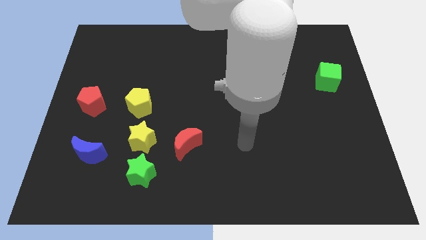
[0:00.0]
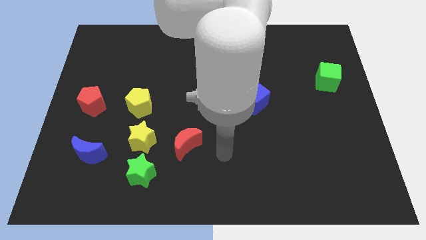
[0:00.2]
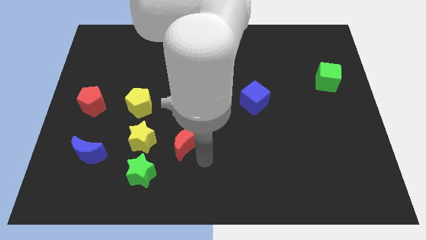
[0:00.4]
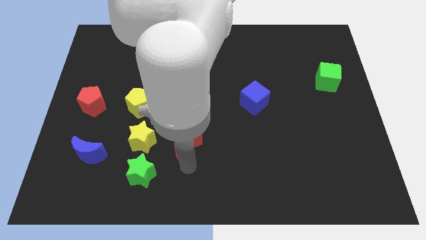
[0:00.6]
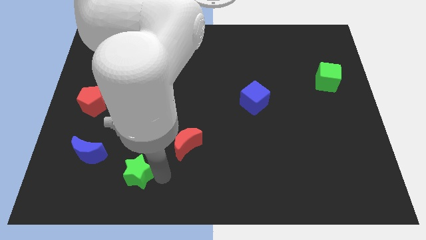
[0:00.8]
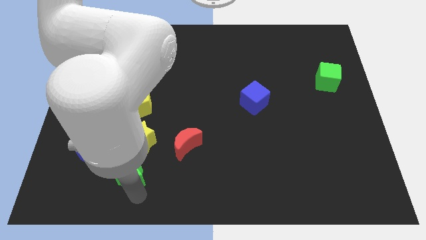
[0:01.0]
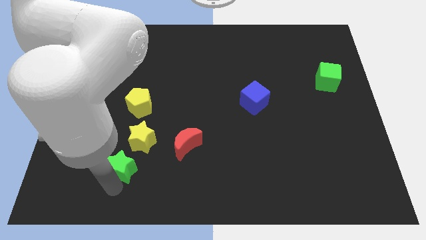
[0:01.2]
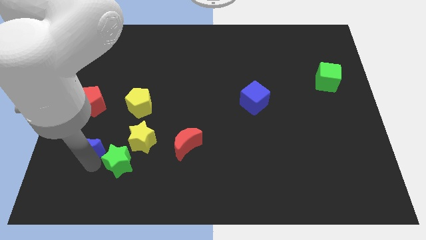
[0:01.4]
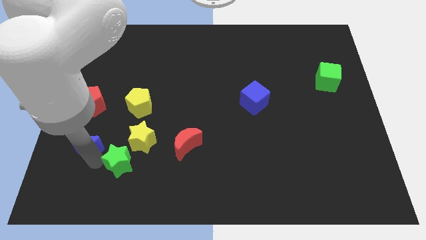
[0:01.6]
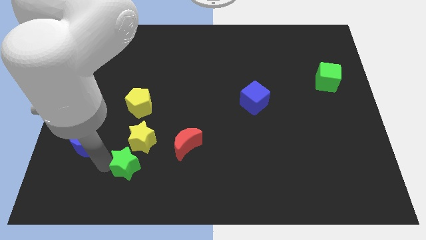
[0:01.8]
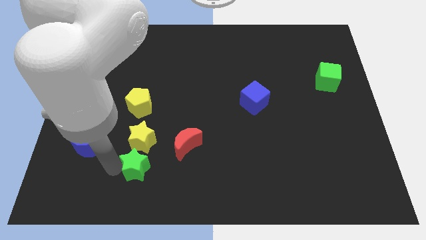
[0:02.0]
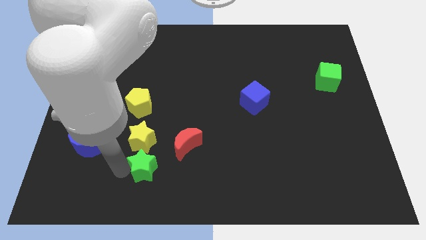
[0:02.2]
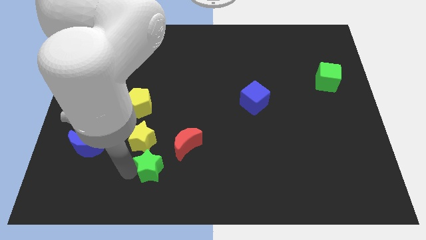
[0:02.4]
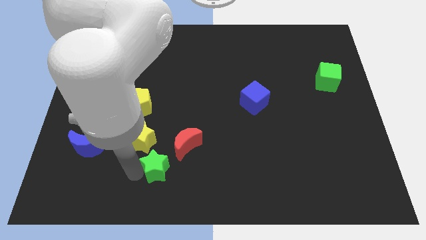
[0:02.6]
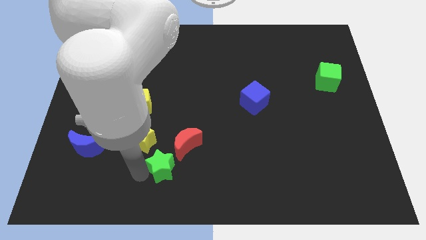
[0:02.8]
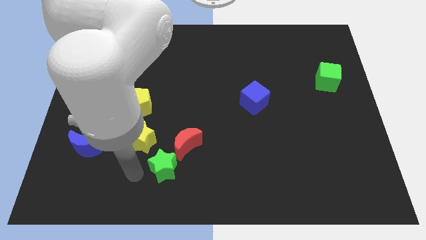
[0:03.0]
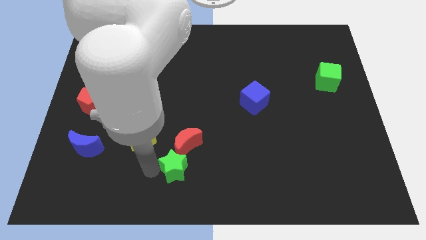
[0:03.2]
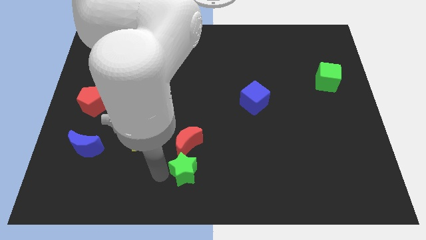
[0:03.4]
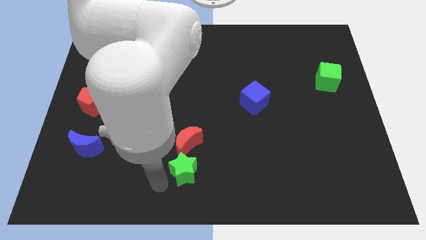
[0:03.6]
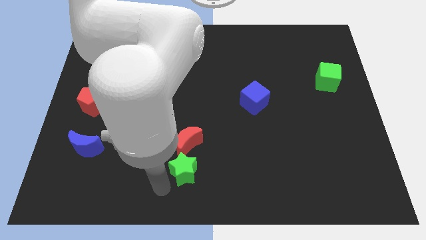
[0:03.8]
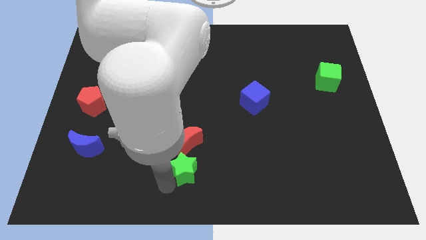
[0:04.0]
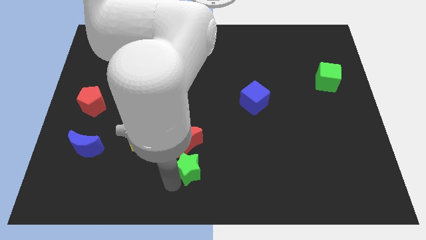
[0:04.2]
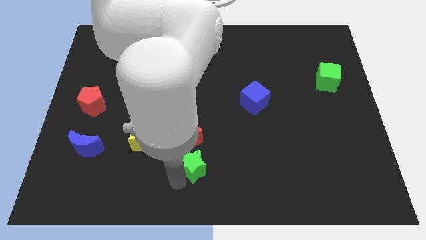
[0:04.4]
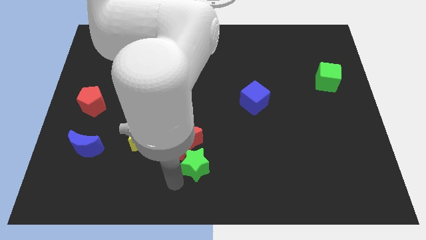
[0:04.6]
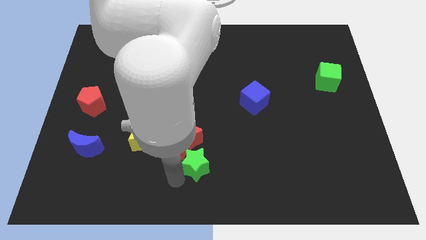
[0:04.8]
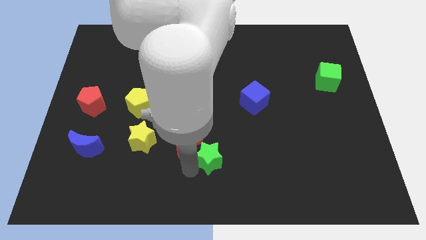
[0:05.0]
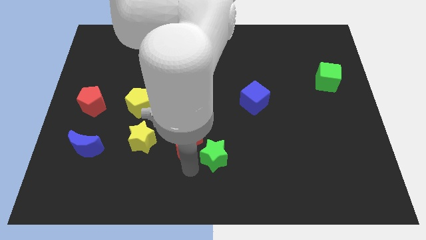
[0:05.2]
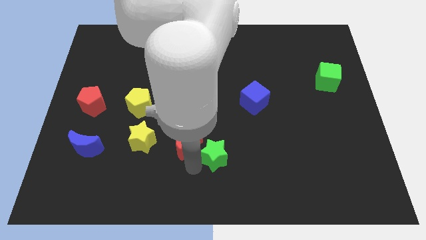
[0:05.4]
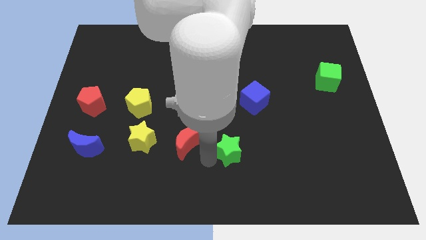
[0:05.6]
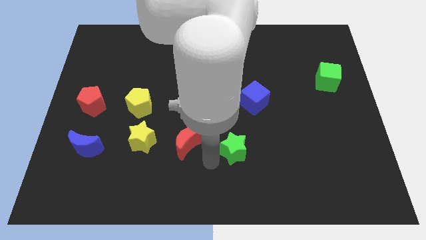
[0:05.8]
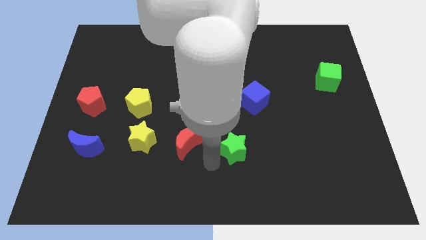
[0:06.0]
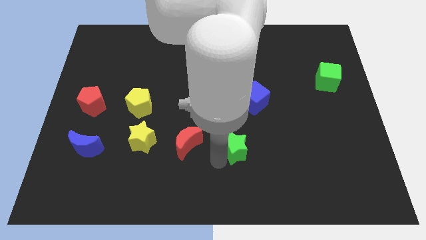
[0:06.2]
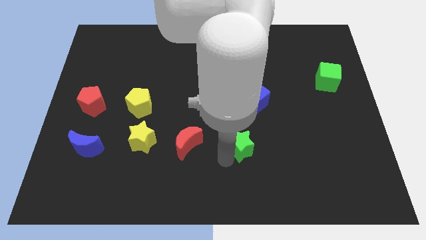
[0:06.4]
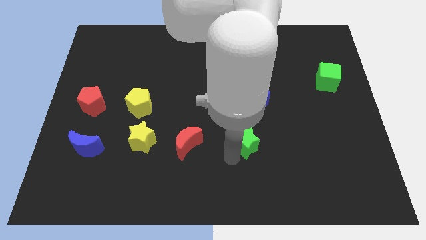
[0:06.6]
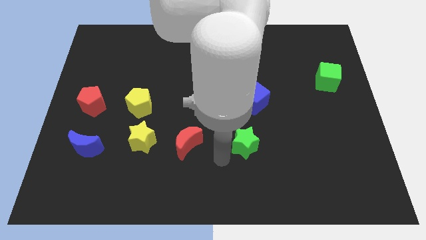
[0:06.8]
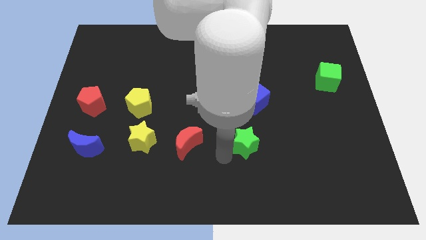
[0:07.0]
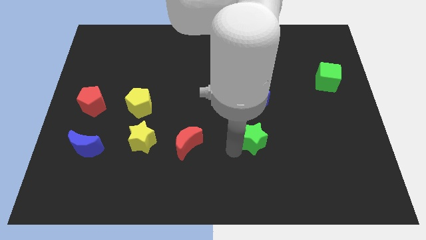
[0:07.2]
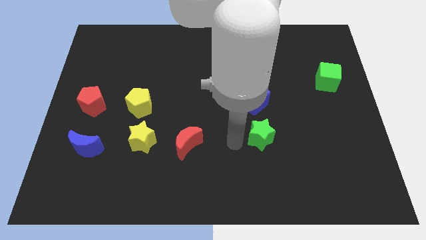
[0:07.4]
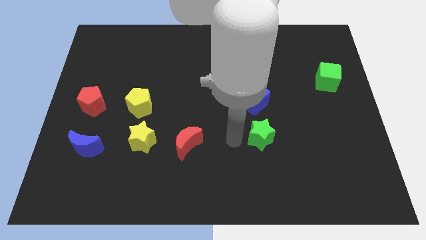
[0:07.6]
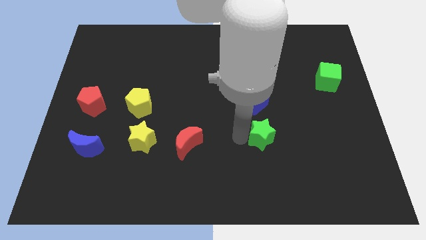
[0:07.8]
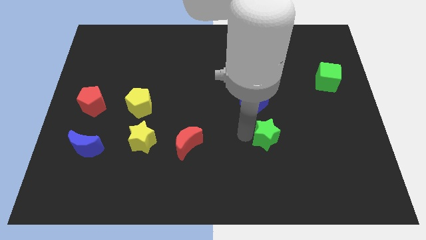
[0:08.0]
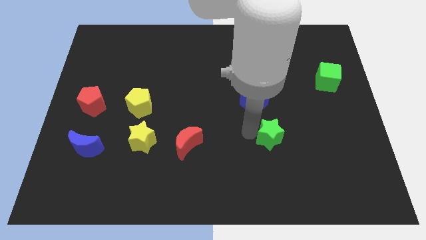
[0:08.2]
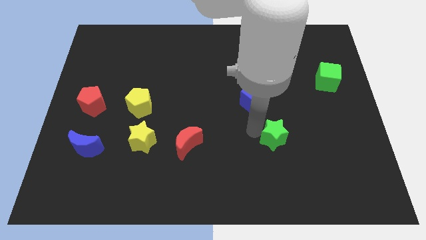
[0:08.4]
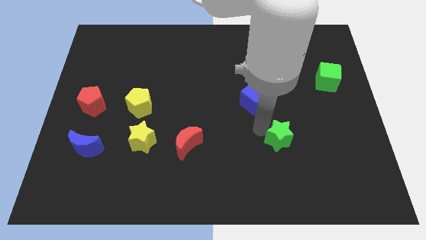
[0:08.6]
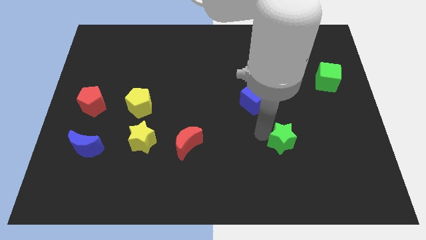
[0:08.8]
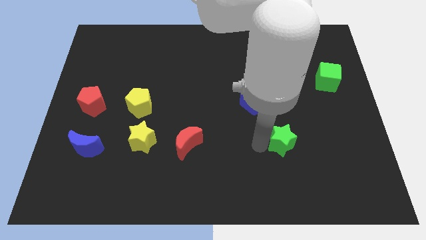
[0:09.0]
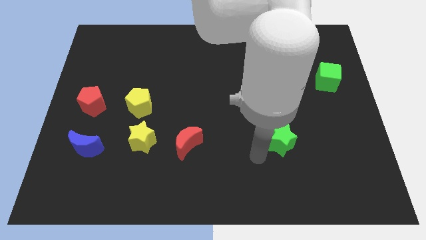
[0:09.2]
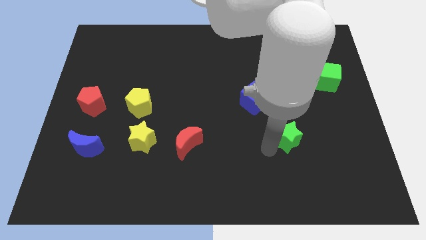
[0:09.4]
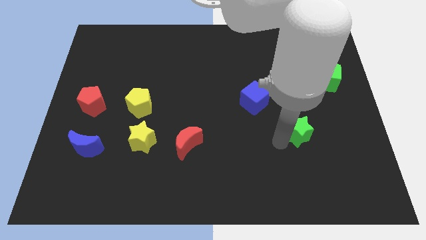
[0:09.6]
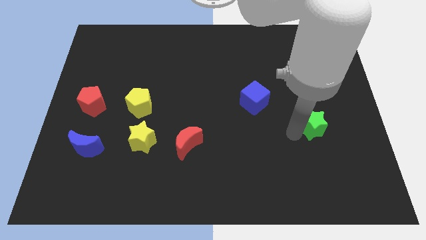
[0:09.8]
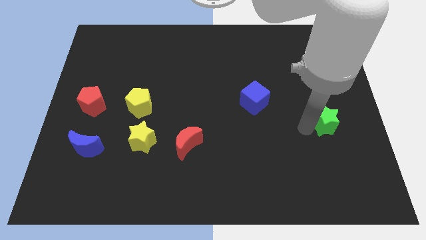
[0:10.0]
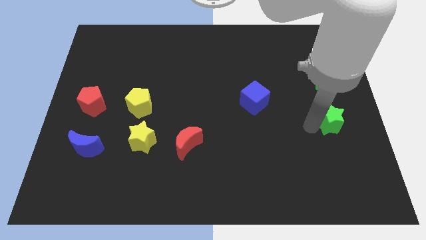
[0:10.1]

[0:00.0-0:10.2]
put the green star to the center right

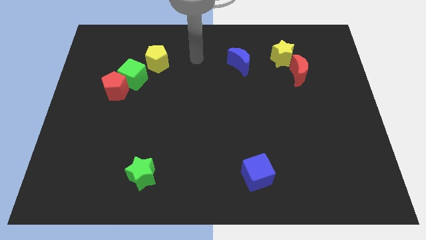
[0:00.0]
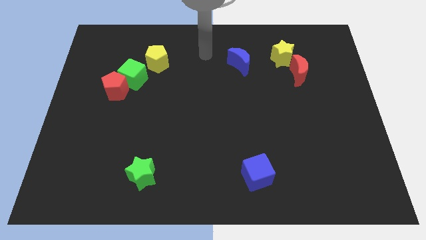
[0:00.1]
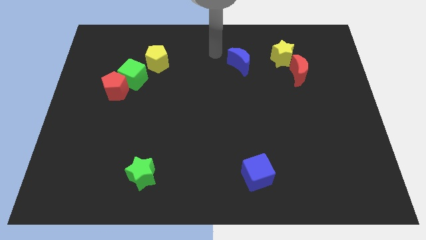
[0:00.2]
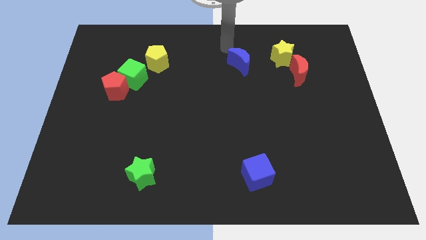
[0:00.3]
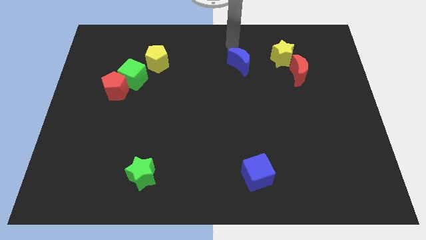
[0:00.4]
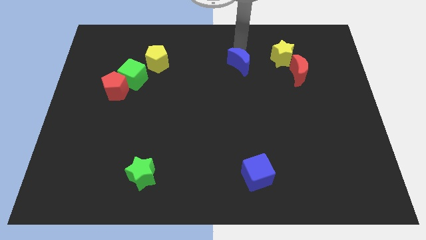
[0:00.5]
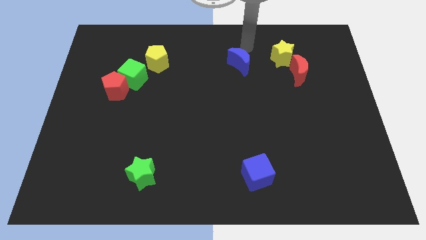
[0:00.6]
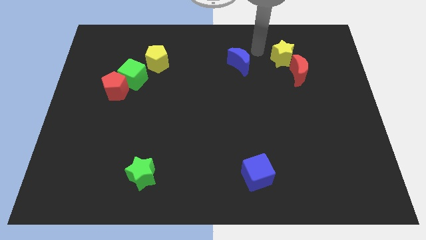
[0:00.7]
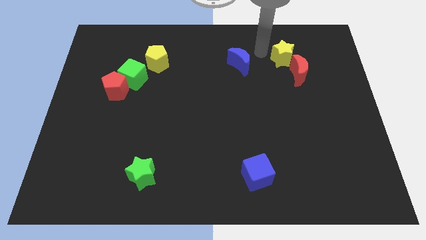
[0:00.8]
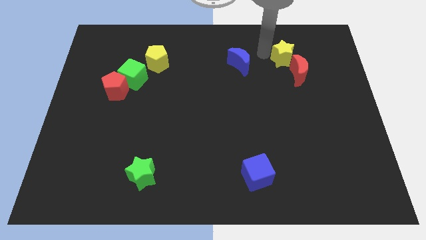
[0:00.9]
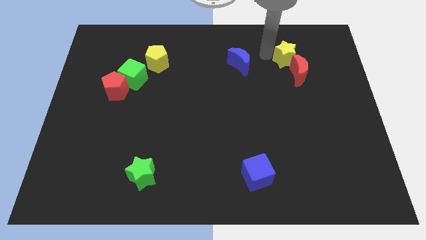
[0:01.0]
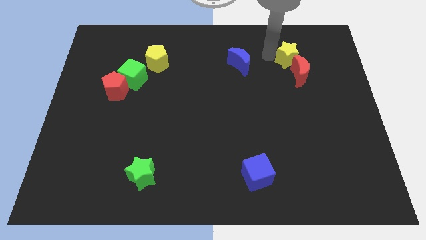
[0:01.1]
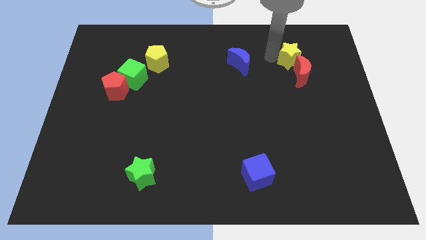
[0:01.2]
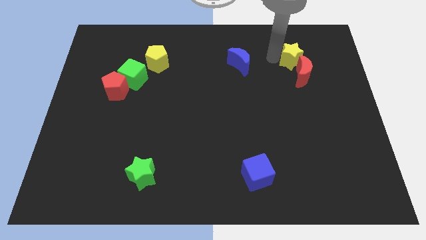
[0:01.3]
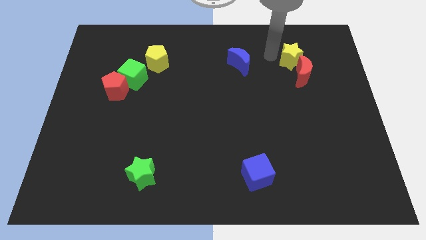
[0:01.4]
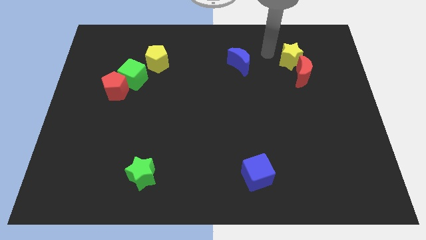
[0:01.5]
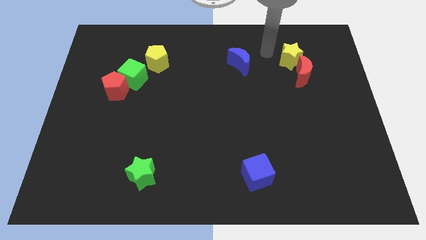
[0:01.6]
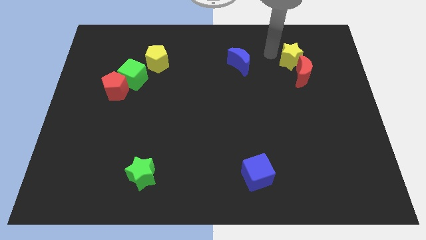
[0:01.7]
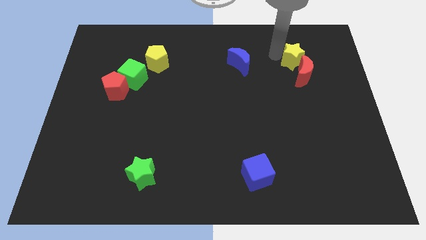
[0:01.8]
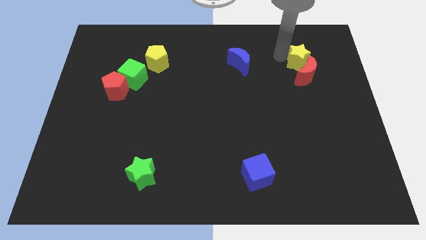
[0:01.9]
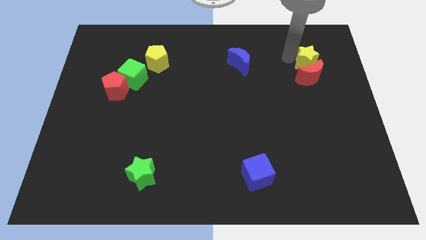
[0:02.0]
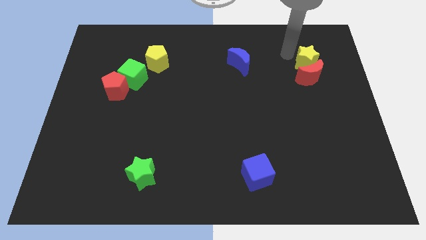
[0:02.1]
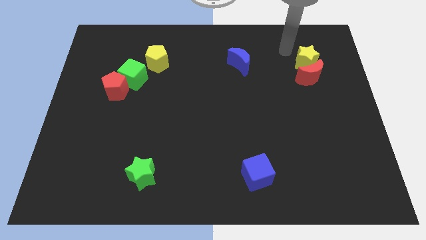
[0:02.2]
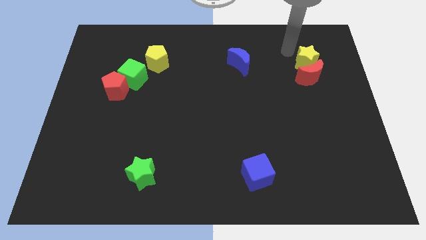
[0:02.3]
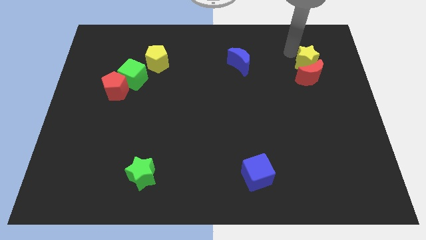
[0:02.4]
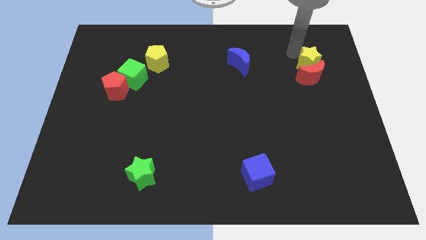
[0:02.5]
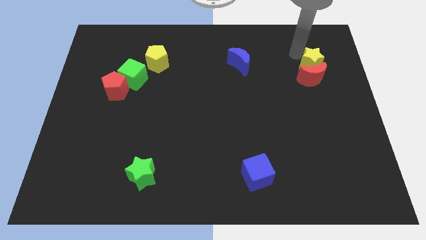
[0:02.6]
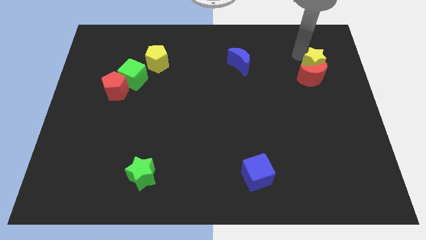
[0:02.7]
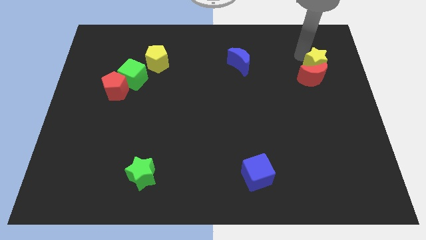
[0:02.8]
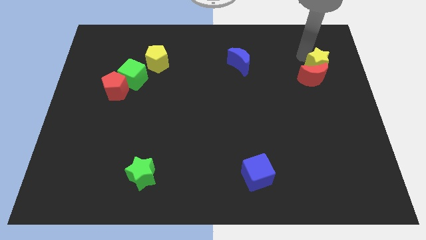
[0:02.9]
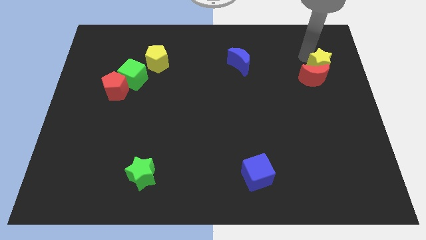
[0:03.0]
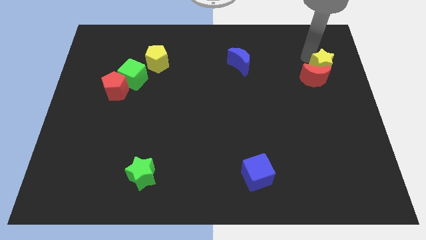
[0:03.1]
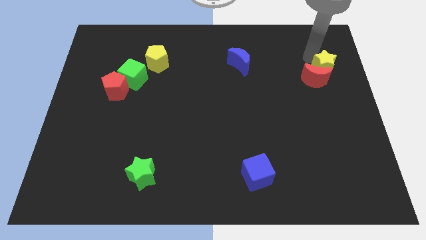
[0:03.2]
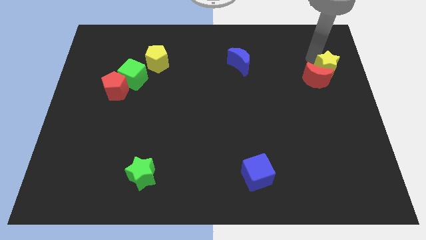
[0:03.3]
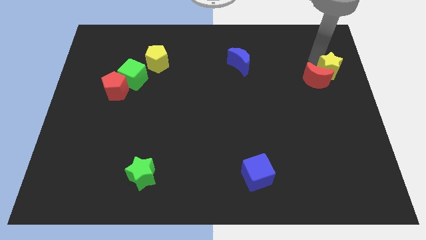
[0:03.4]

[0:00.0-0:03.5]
move the yellow star to the center right
